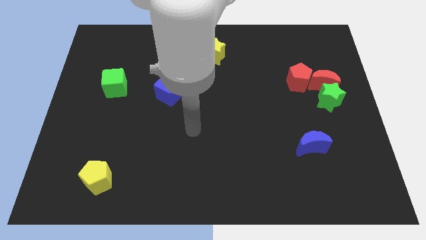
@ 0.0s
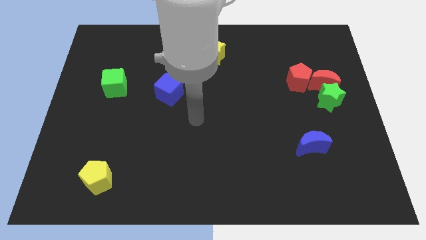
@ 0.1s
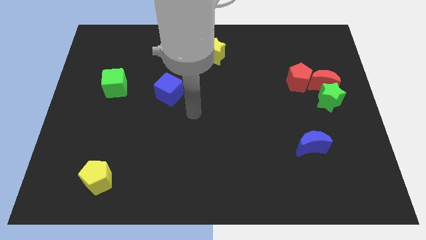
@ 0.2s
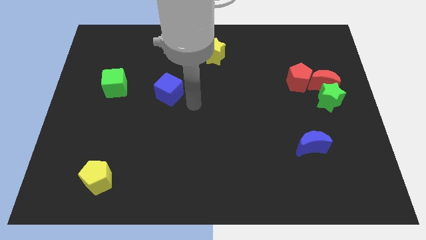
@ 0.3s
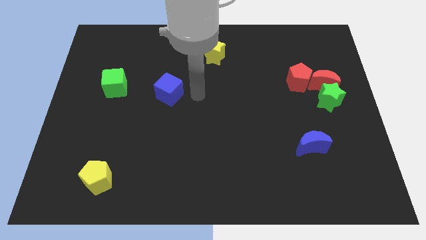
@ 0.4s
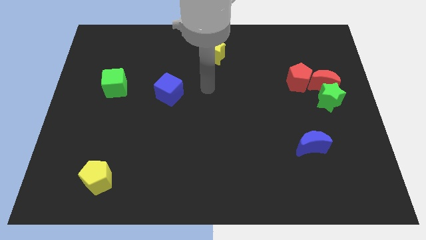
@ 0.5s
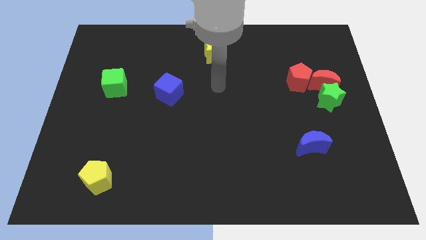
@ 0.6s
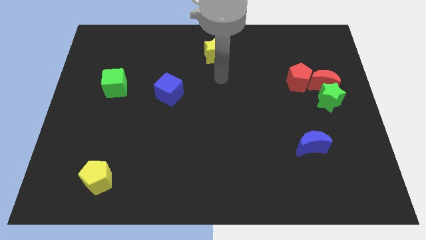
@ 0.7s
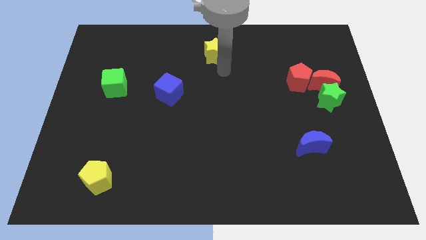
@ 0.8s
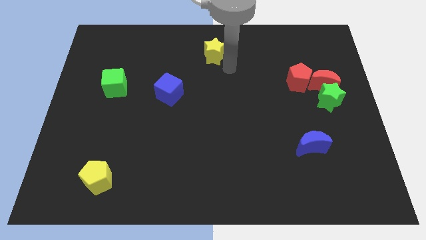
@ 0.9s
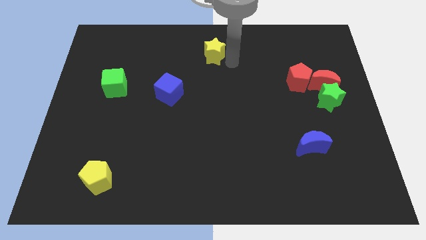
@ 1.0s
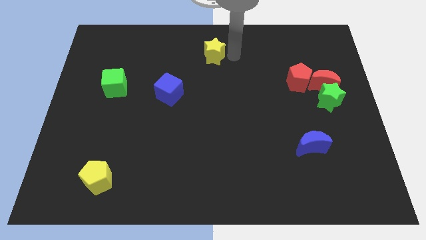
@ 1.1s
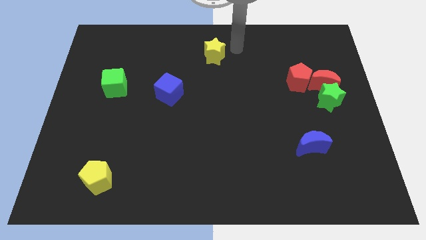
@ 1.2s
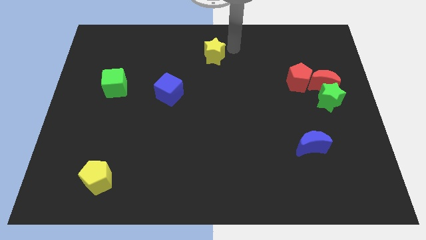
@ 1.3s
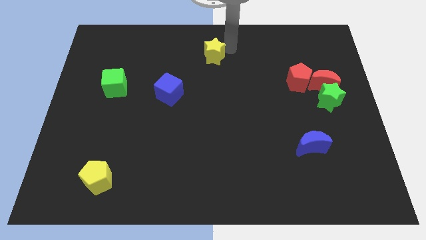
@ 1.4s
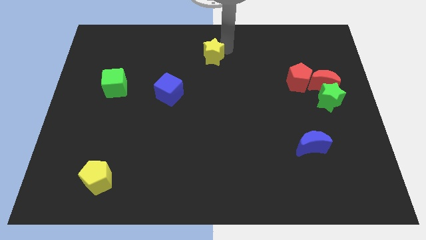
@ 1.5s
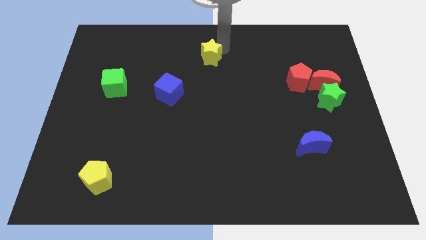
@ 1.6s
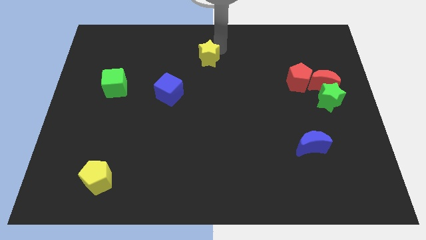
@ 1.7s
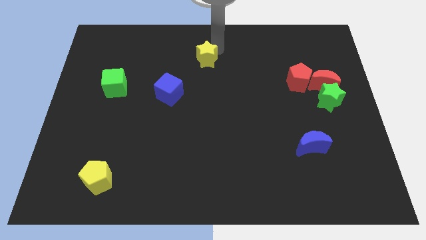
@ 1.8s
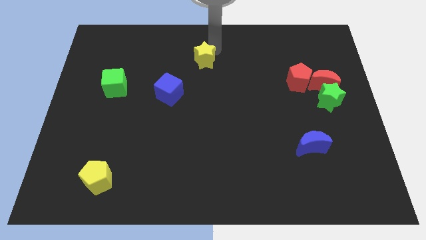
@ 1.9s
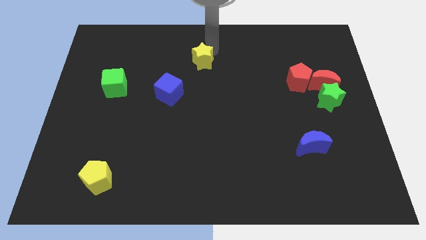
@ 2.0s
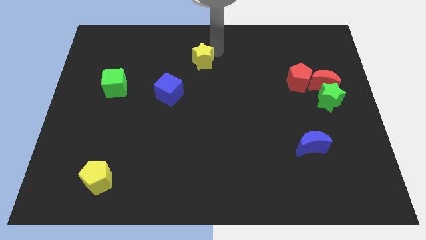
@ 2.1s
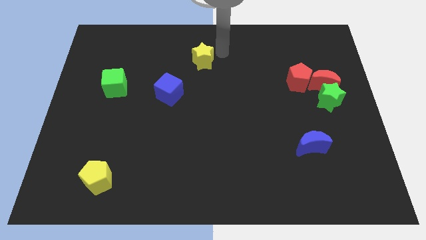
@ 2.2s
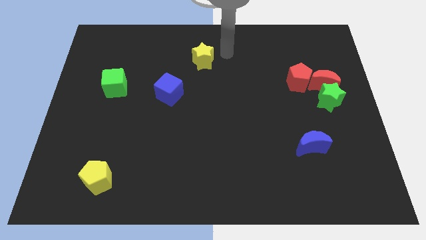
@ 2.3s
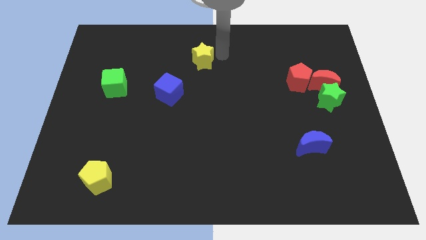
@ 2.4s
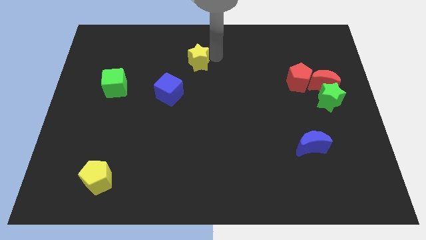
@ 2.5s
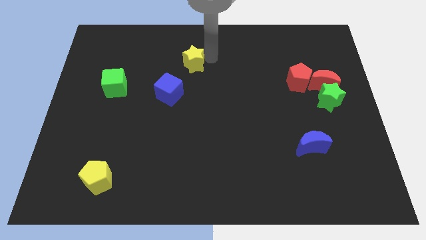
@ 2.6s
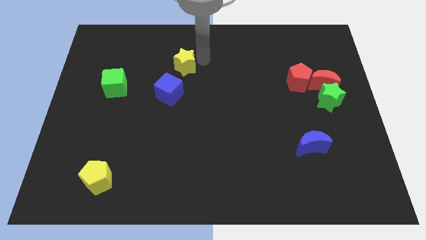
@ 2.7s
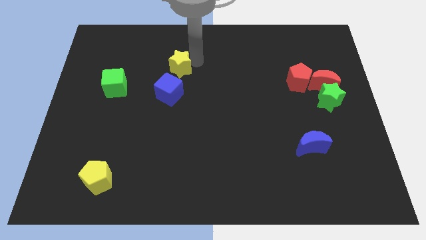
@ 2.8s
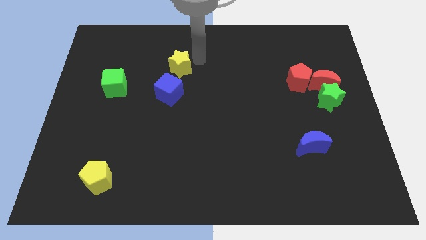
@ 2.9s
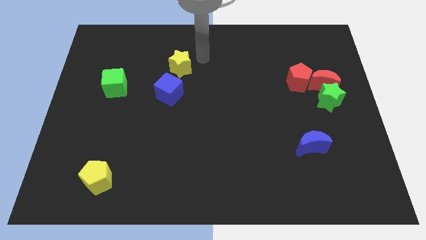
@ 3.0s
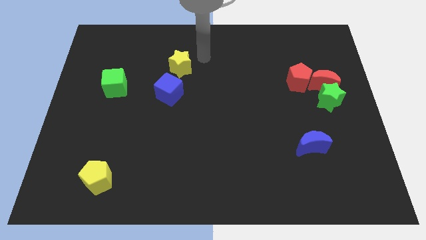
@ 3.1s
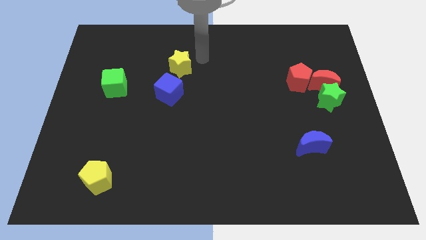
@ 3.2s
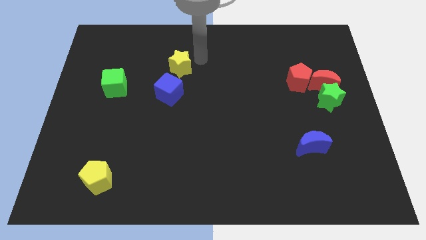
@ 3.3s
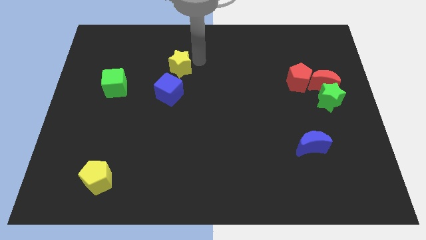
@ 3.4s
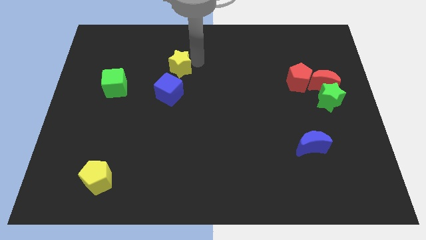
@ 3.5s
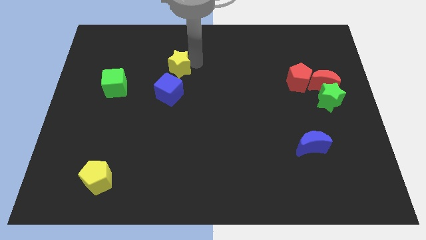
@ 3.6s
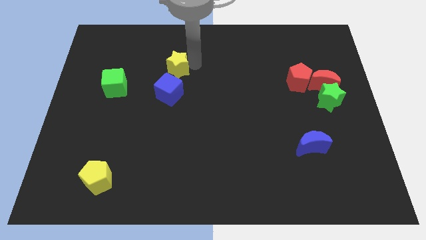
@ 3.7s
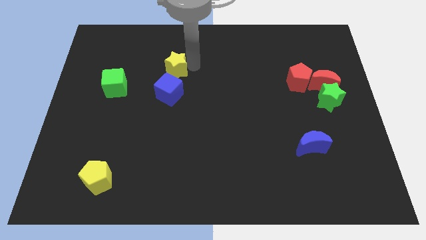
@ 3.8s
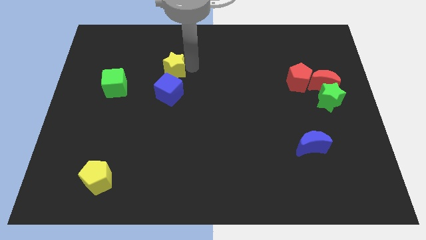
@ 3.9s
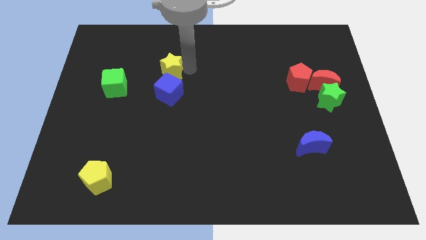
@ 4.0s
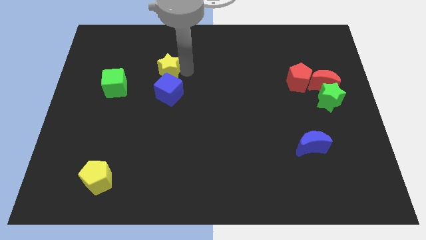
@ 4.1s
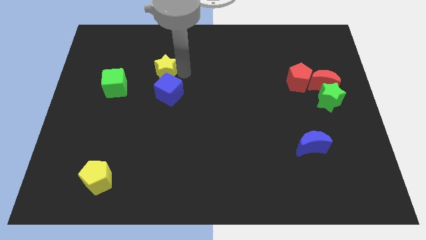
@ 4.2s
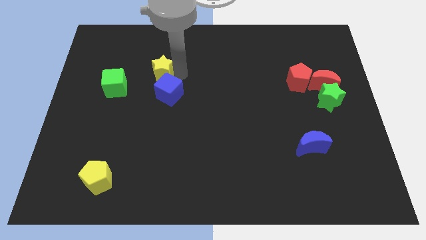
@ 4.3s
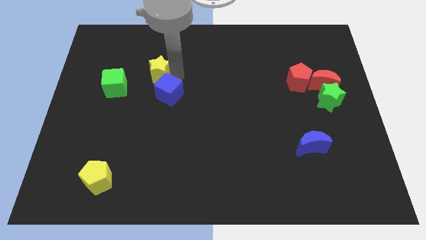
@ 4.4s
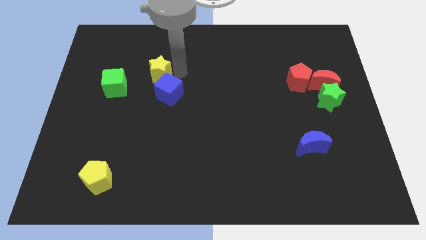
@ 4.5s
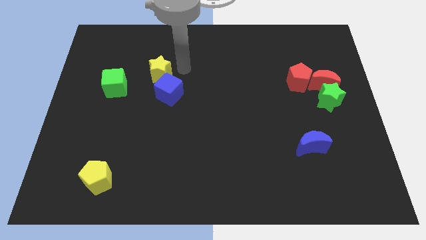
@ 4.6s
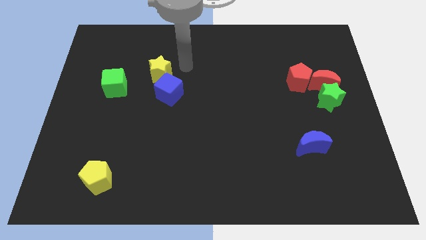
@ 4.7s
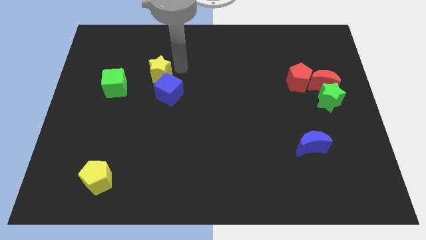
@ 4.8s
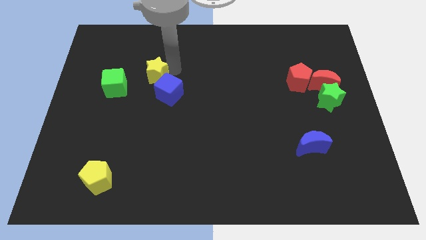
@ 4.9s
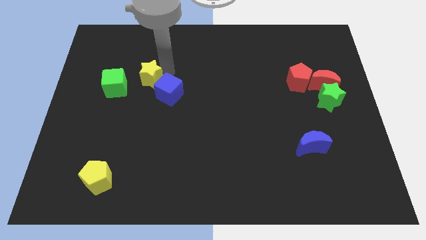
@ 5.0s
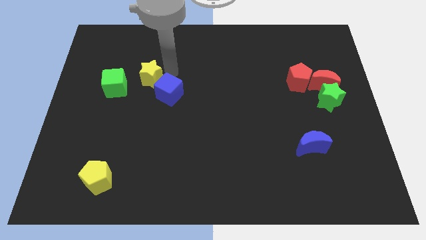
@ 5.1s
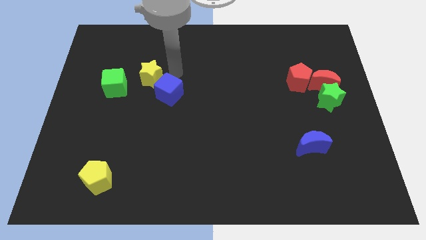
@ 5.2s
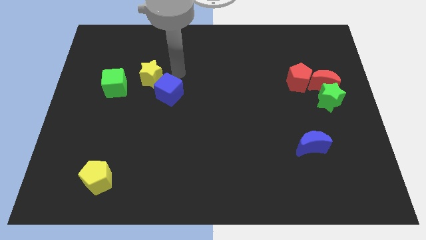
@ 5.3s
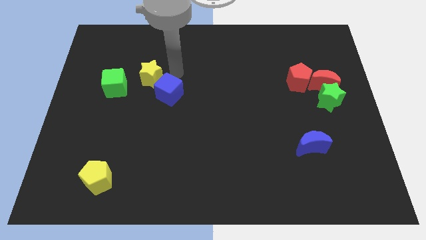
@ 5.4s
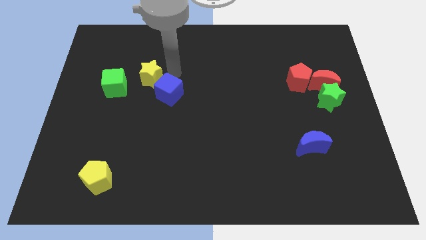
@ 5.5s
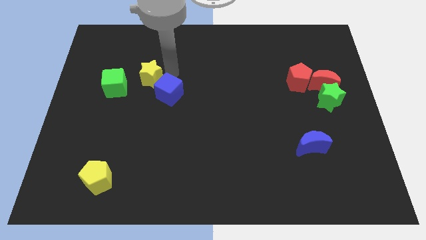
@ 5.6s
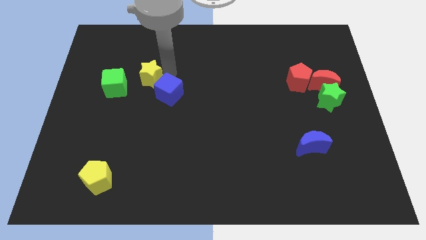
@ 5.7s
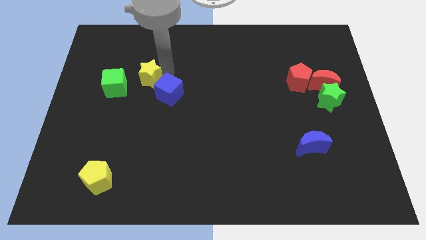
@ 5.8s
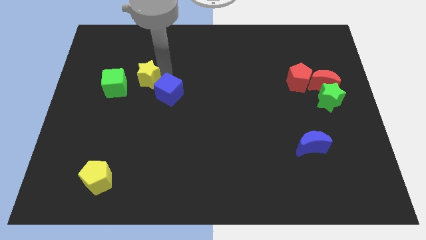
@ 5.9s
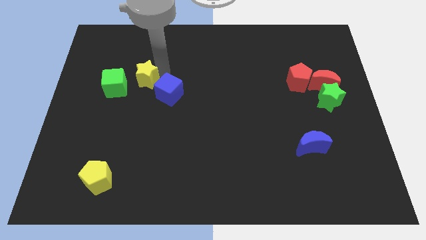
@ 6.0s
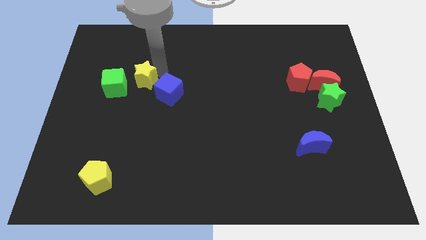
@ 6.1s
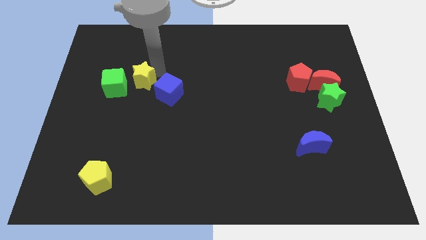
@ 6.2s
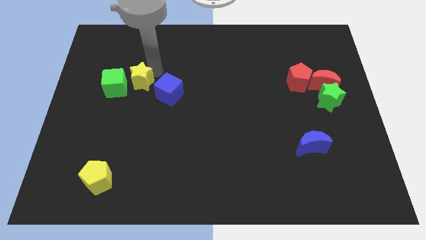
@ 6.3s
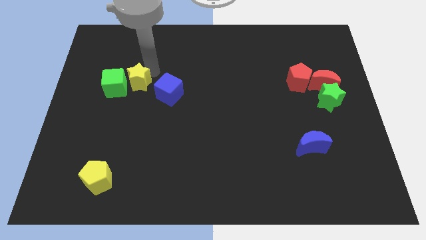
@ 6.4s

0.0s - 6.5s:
push the yellow star to the green cube
